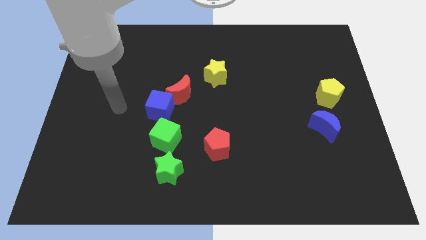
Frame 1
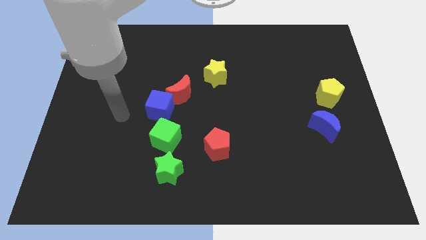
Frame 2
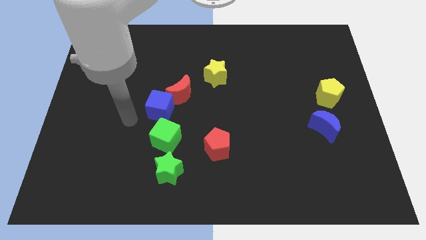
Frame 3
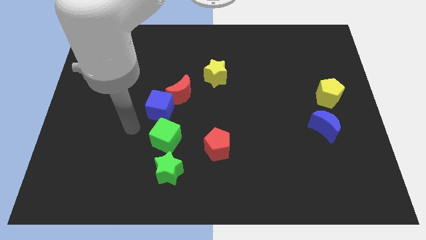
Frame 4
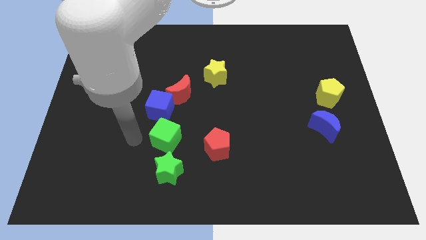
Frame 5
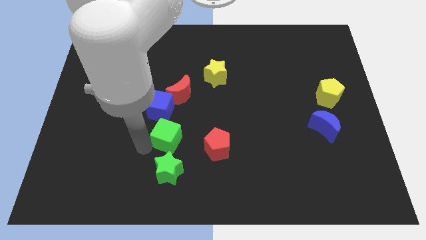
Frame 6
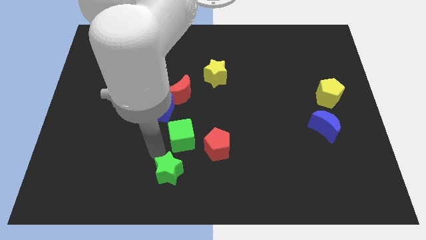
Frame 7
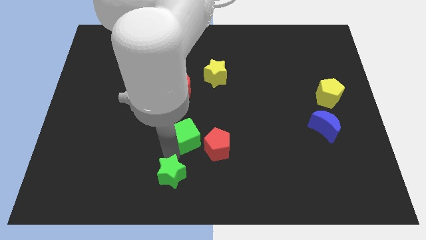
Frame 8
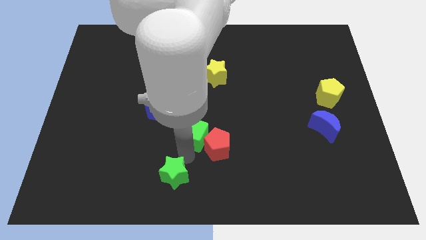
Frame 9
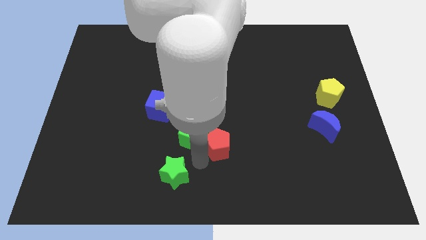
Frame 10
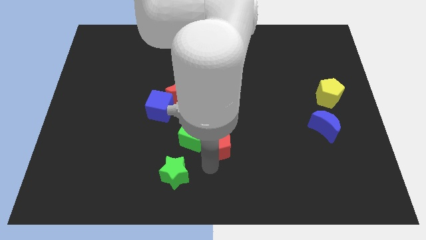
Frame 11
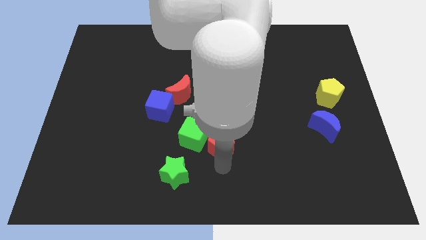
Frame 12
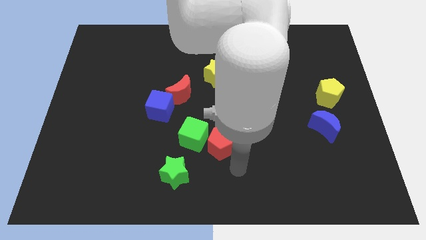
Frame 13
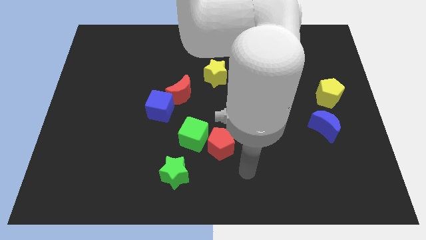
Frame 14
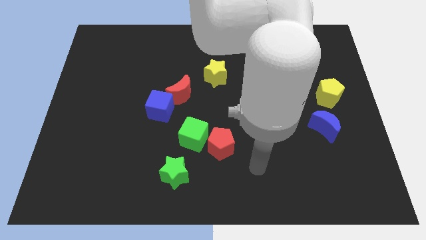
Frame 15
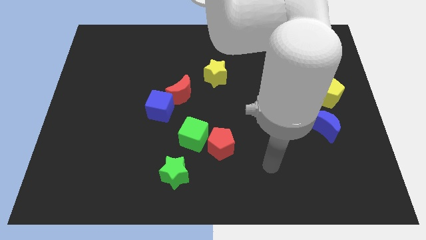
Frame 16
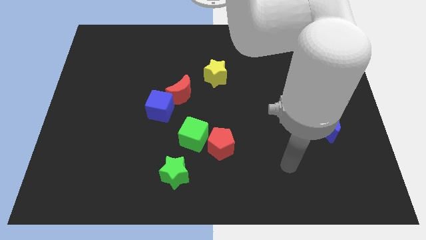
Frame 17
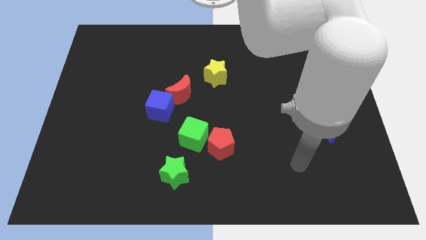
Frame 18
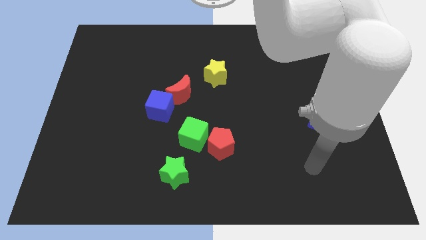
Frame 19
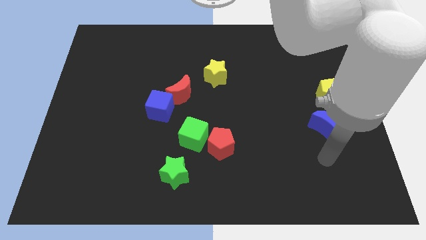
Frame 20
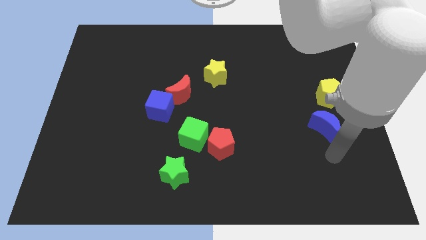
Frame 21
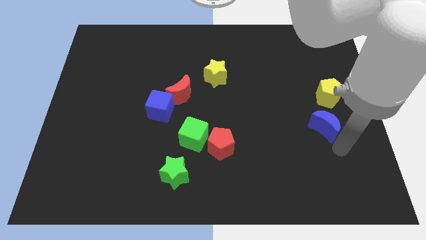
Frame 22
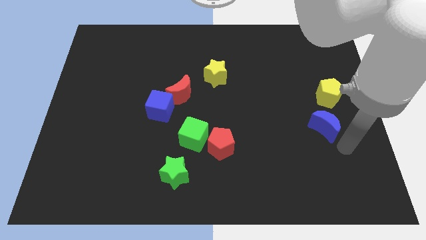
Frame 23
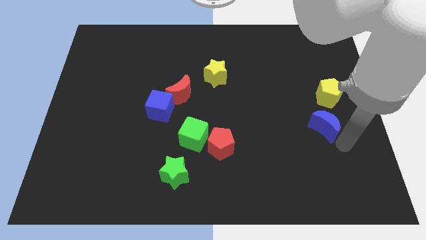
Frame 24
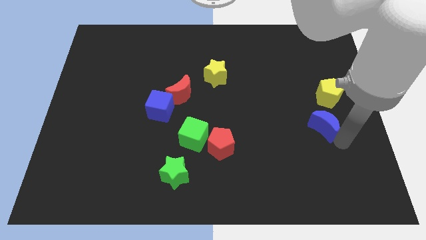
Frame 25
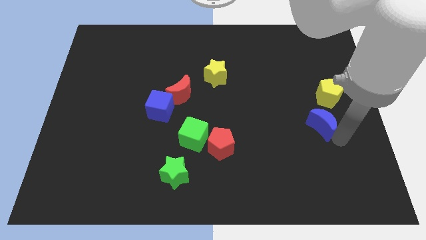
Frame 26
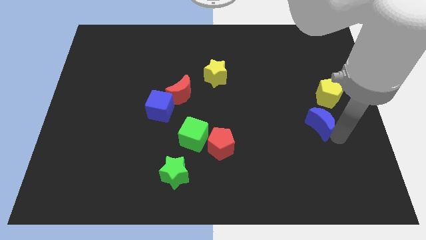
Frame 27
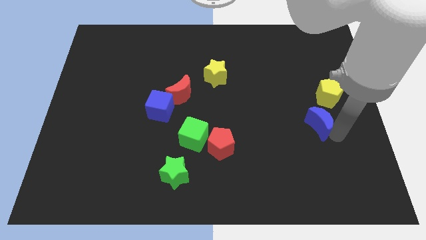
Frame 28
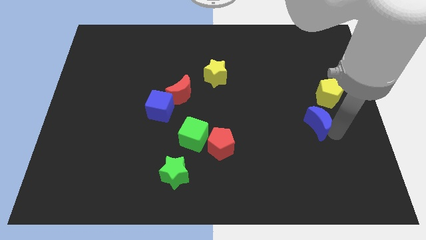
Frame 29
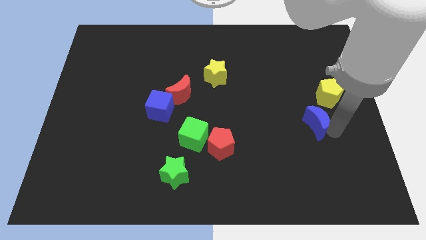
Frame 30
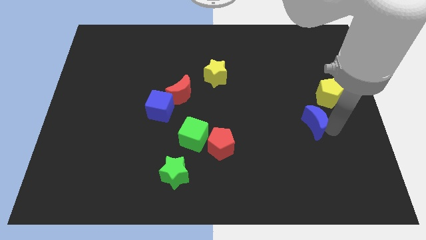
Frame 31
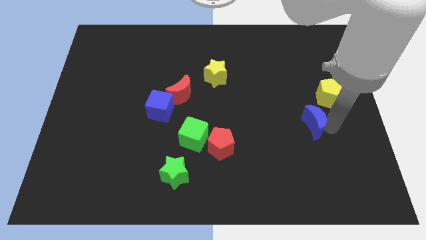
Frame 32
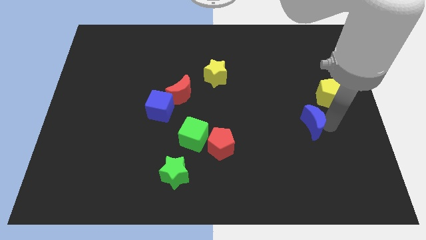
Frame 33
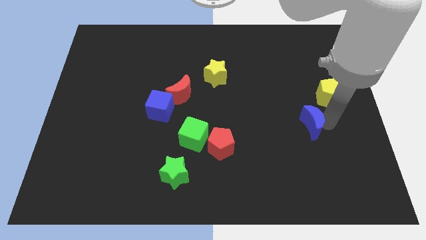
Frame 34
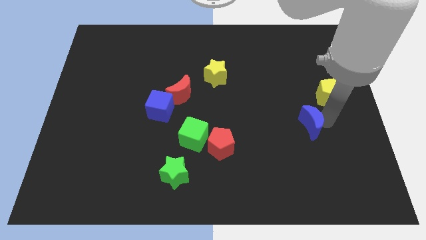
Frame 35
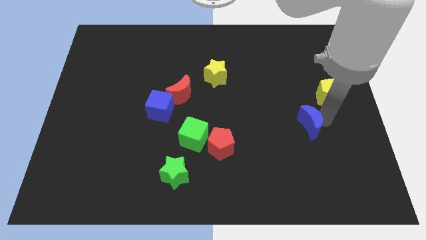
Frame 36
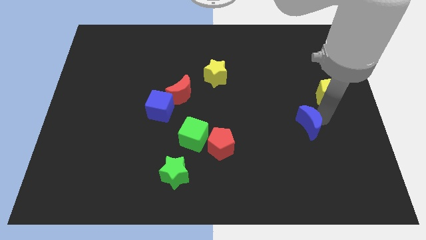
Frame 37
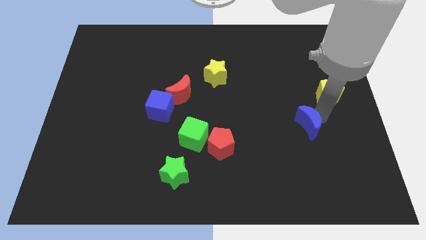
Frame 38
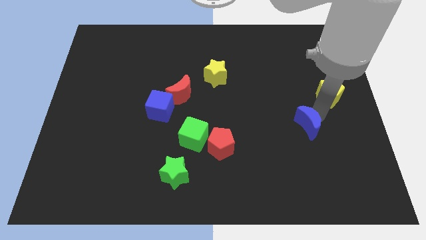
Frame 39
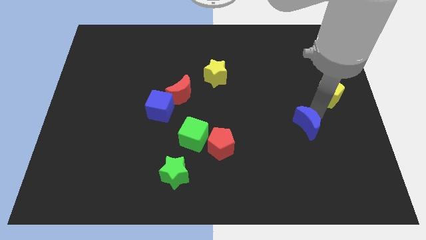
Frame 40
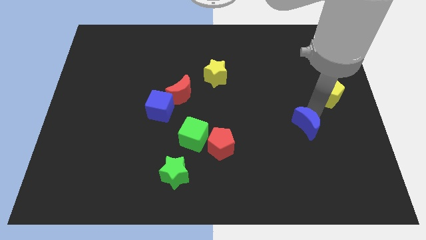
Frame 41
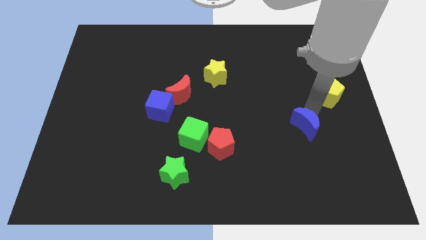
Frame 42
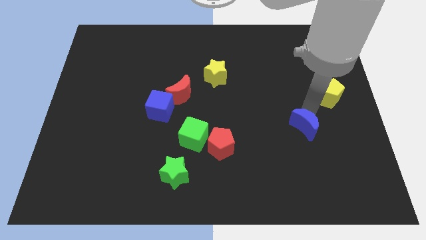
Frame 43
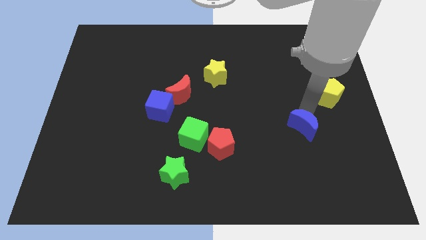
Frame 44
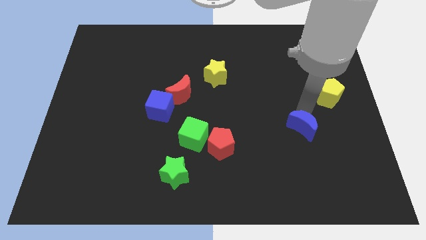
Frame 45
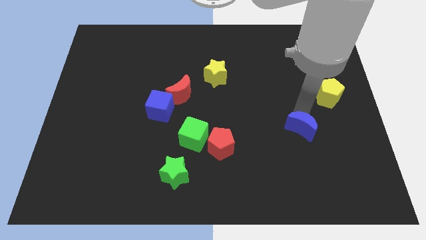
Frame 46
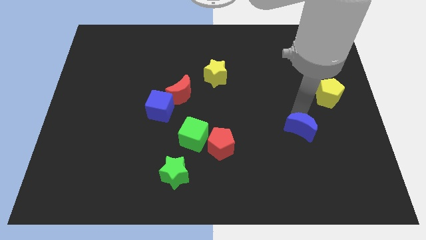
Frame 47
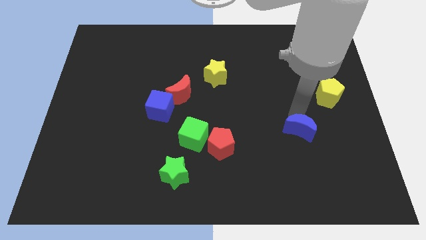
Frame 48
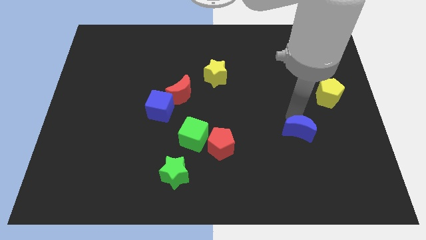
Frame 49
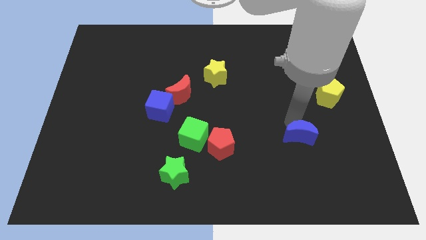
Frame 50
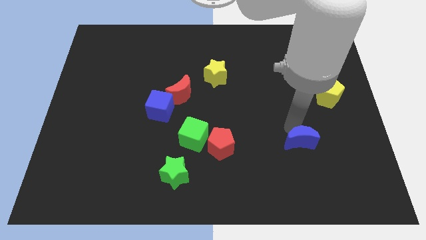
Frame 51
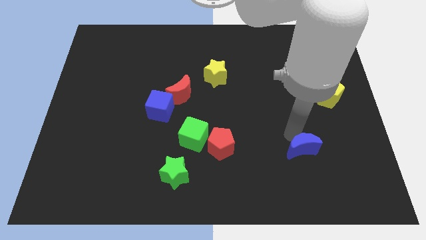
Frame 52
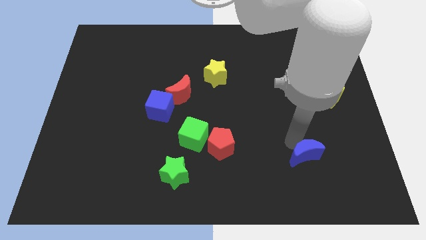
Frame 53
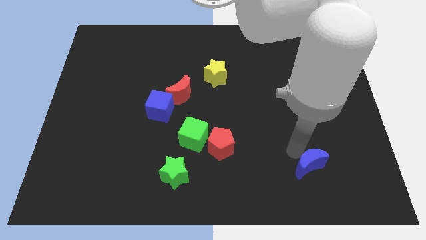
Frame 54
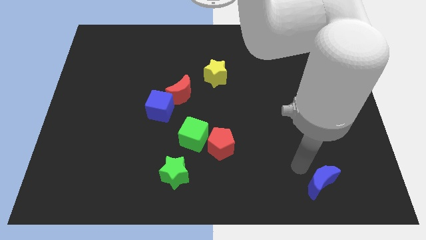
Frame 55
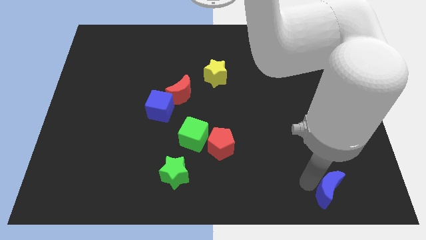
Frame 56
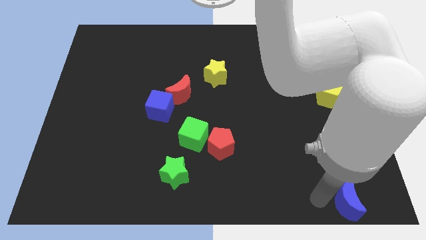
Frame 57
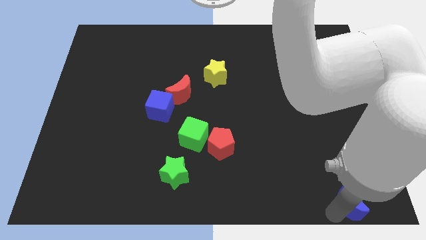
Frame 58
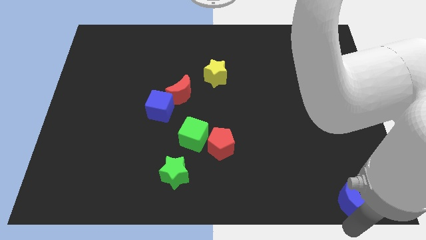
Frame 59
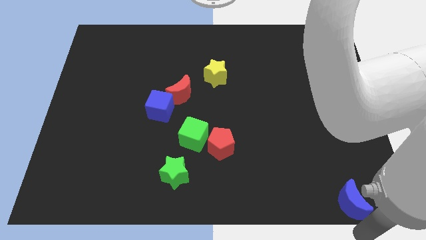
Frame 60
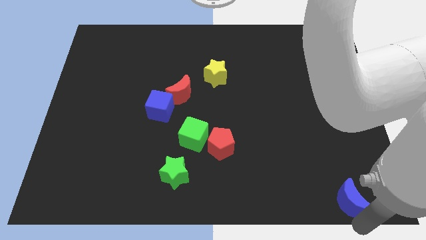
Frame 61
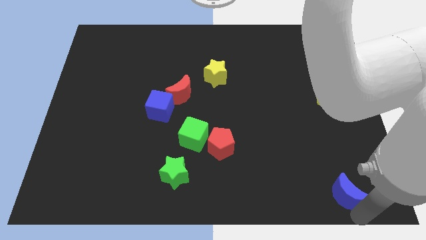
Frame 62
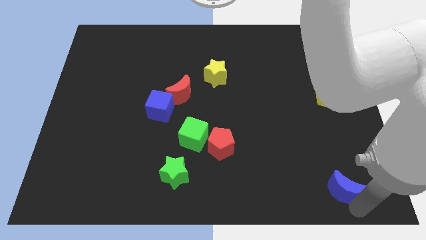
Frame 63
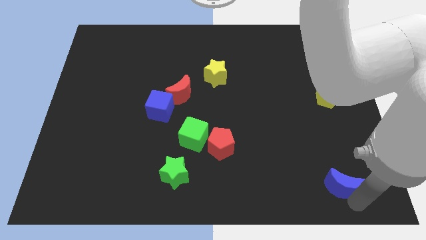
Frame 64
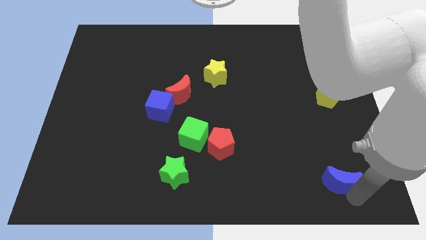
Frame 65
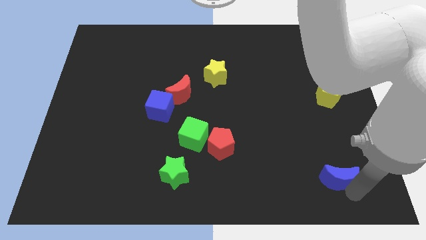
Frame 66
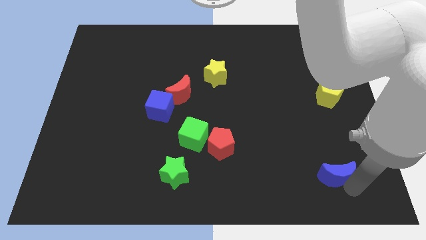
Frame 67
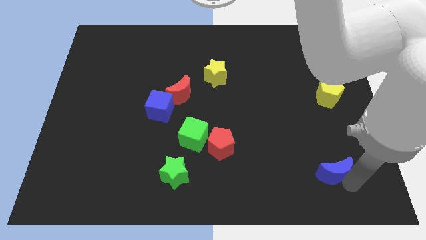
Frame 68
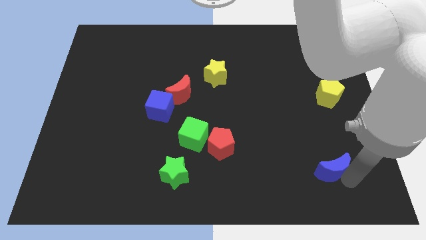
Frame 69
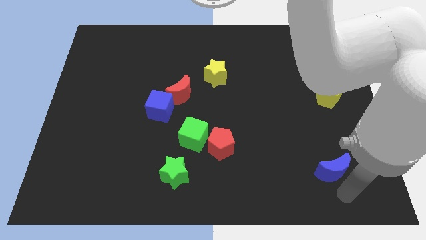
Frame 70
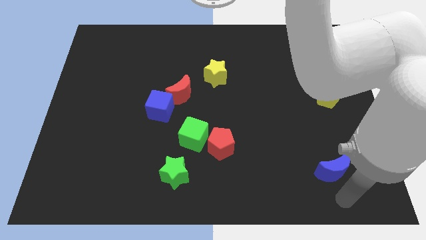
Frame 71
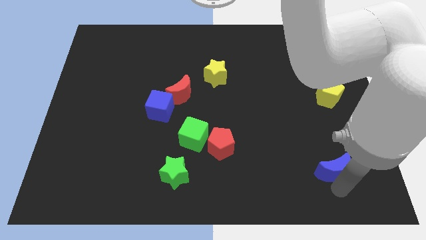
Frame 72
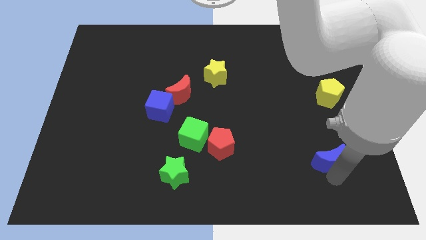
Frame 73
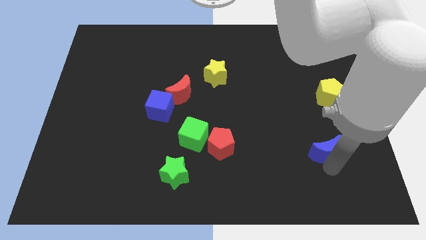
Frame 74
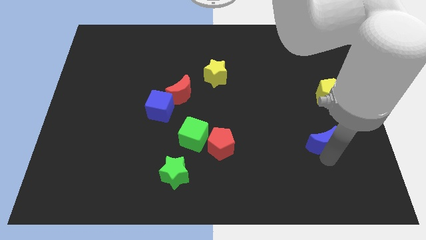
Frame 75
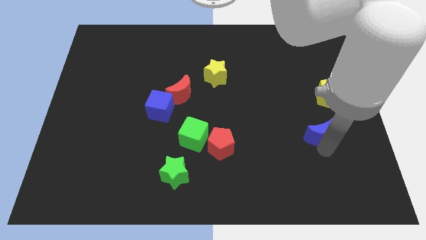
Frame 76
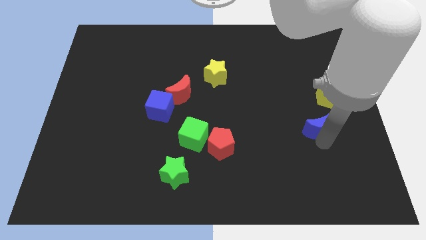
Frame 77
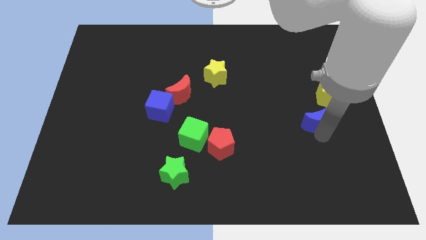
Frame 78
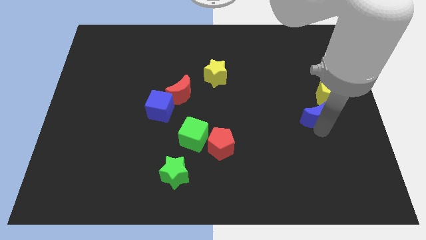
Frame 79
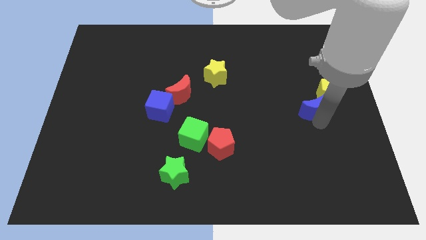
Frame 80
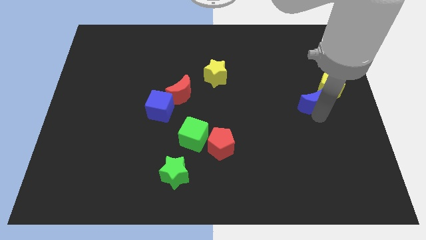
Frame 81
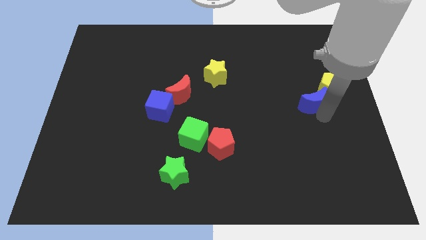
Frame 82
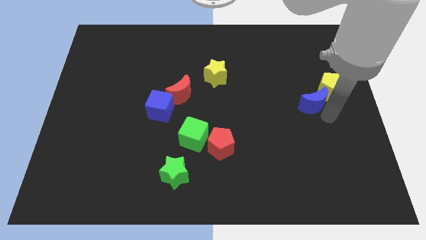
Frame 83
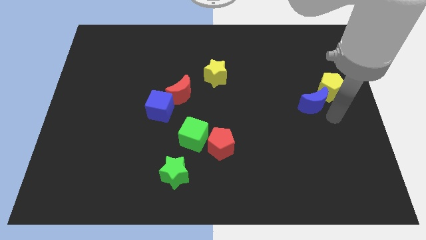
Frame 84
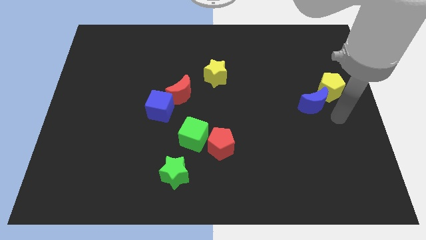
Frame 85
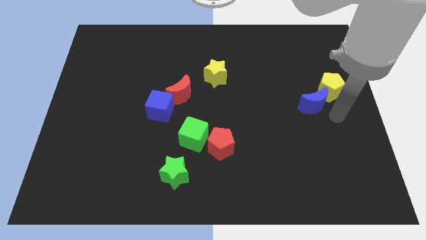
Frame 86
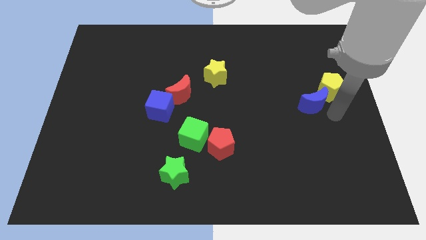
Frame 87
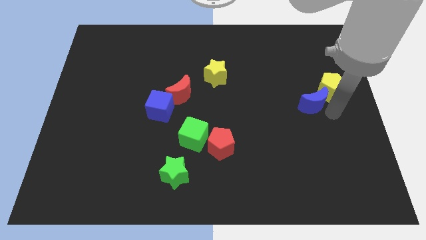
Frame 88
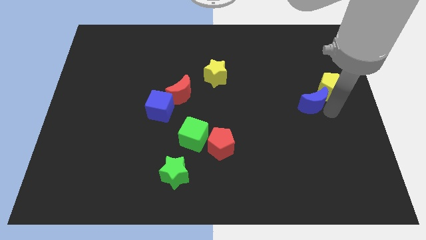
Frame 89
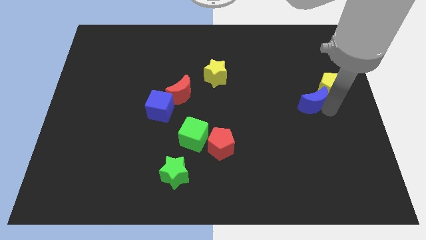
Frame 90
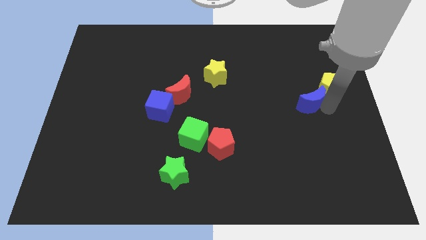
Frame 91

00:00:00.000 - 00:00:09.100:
move the blue moon a bit upwards
